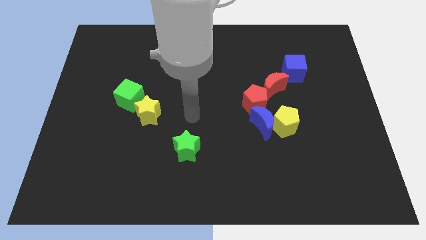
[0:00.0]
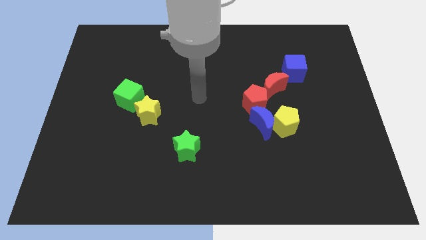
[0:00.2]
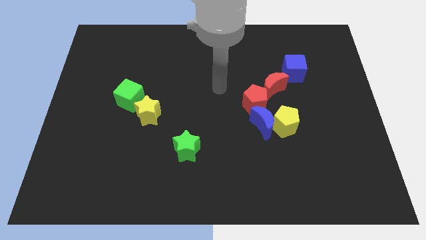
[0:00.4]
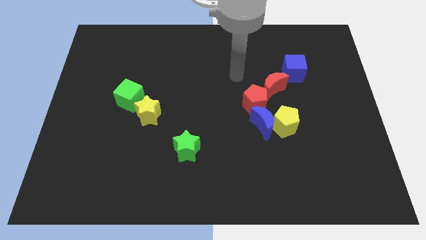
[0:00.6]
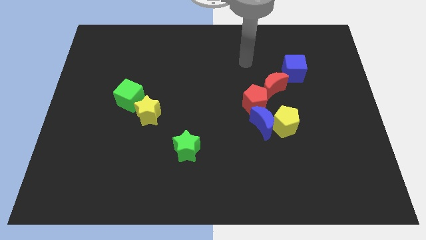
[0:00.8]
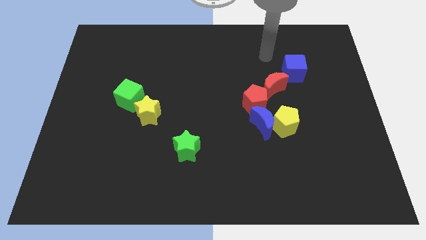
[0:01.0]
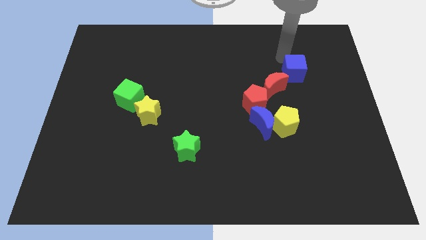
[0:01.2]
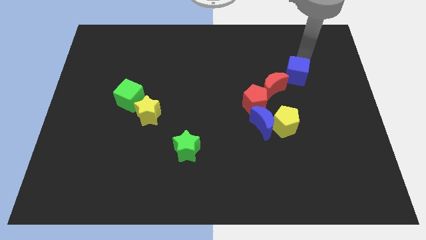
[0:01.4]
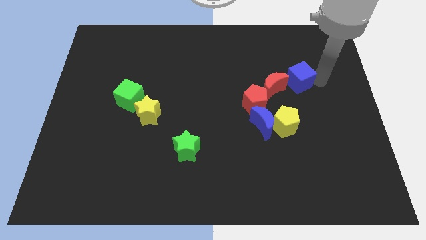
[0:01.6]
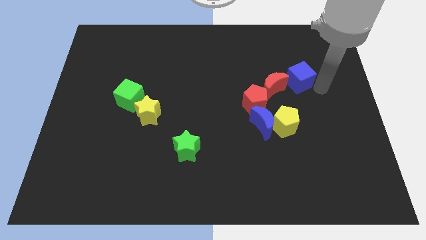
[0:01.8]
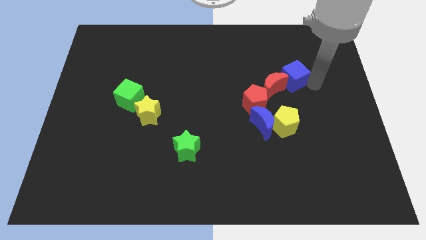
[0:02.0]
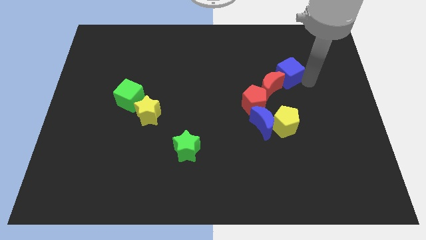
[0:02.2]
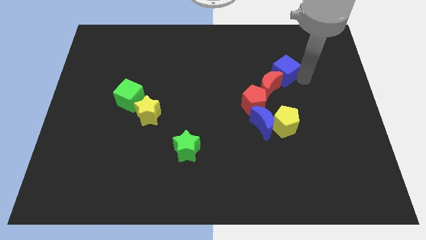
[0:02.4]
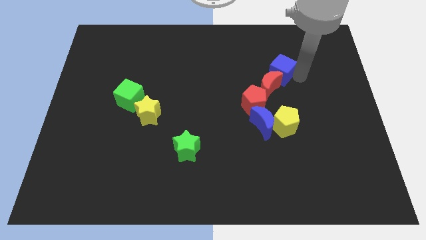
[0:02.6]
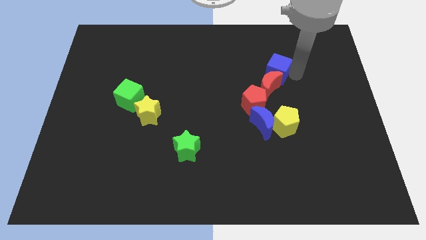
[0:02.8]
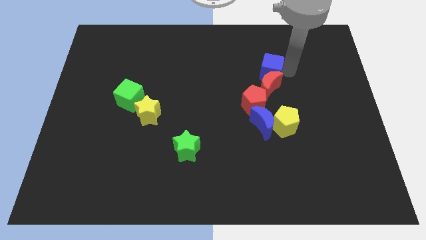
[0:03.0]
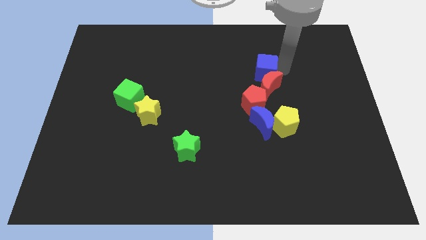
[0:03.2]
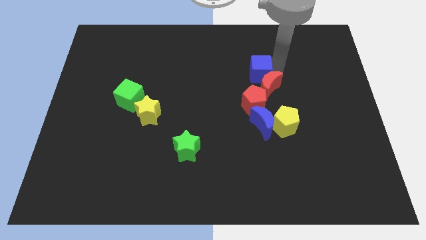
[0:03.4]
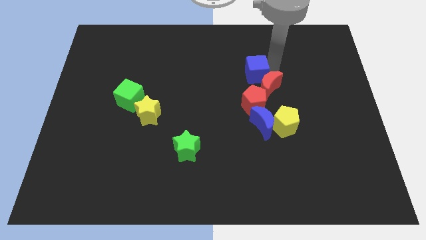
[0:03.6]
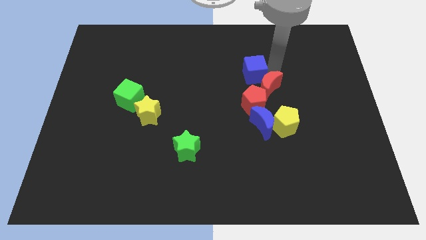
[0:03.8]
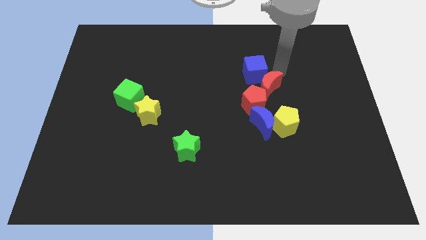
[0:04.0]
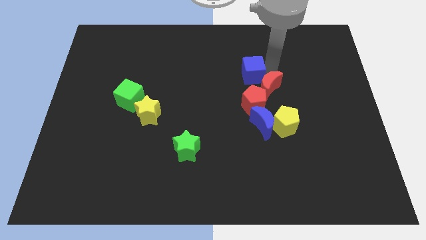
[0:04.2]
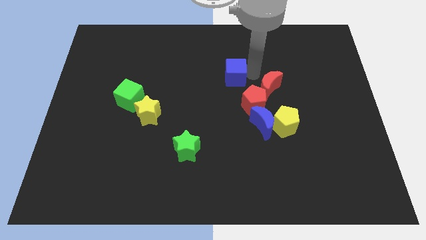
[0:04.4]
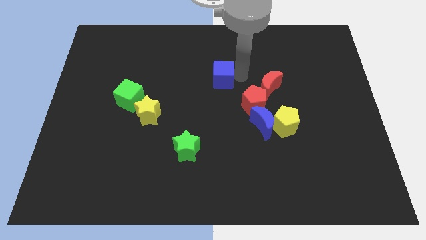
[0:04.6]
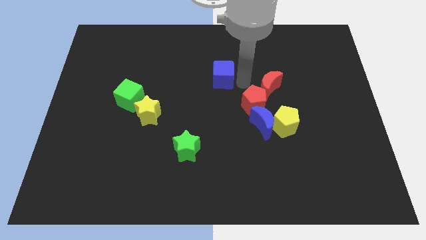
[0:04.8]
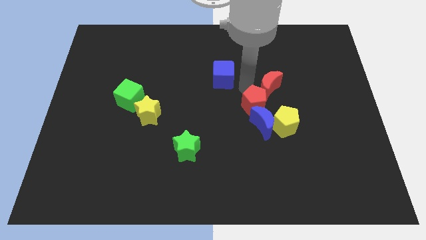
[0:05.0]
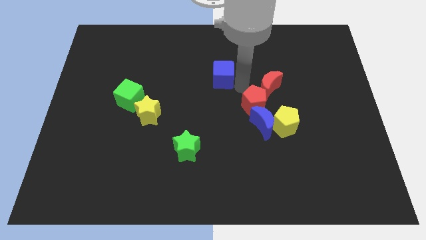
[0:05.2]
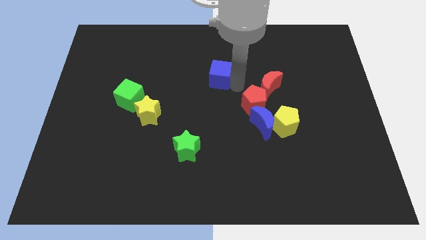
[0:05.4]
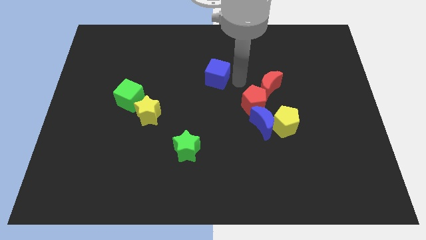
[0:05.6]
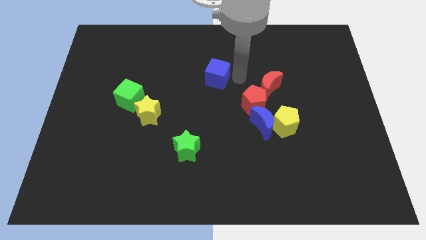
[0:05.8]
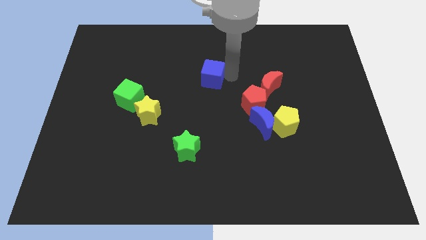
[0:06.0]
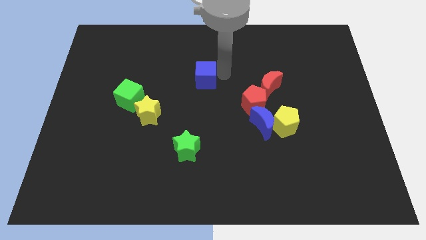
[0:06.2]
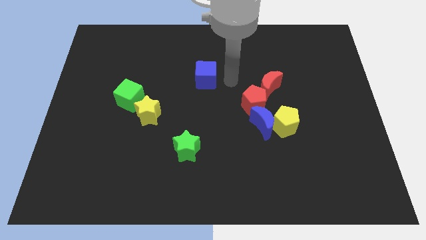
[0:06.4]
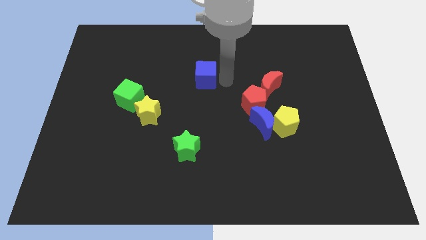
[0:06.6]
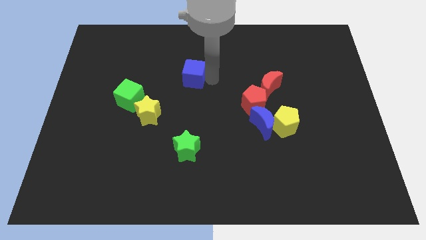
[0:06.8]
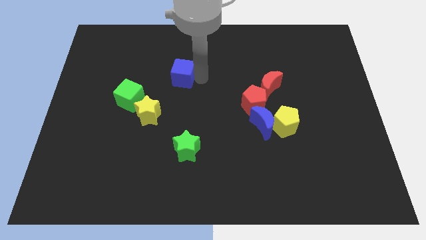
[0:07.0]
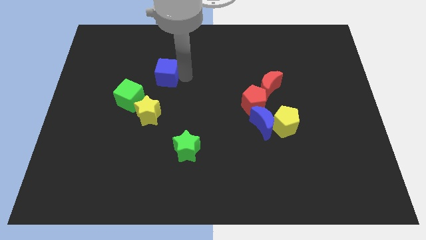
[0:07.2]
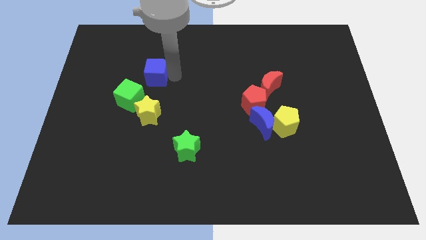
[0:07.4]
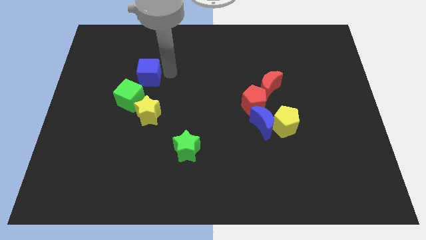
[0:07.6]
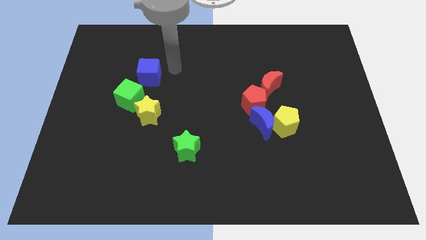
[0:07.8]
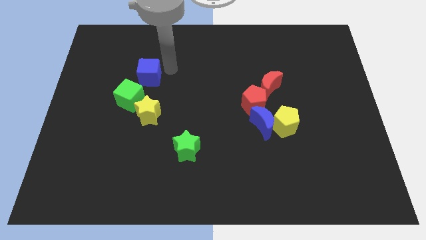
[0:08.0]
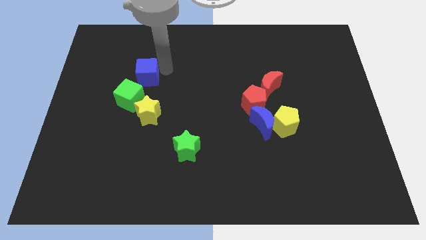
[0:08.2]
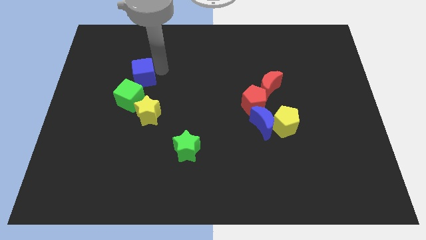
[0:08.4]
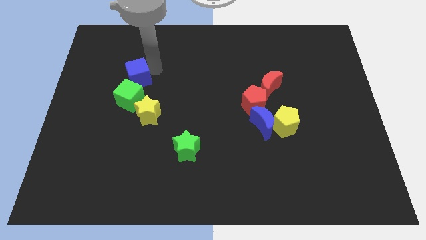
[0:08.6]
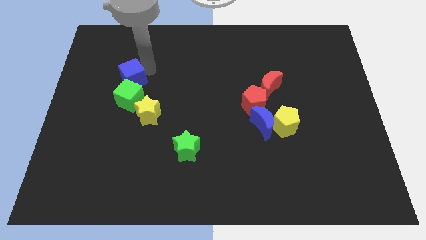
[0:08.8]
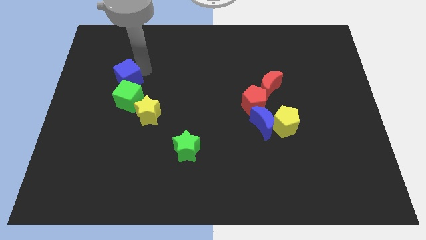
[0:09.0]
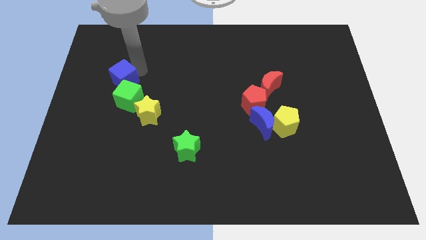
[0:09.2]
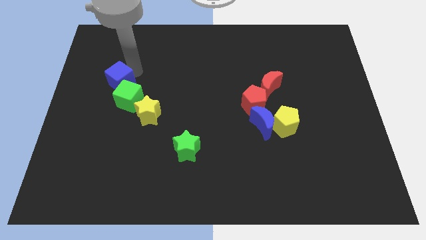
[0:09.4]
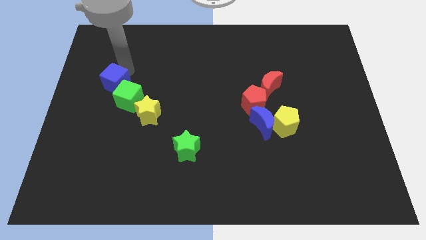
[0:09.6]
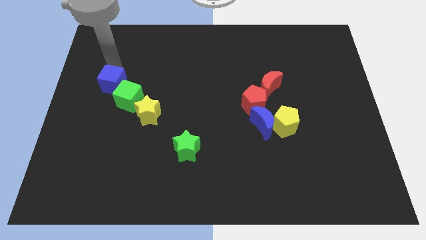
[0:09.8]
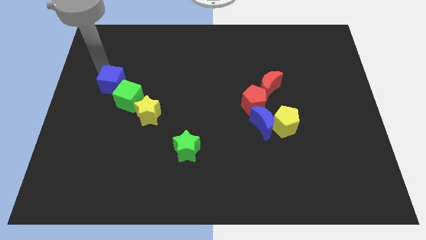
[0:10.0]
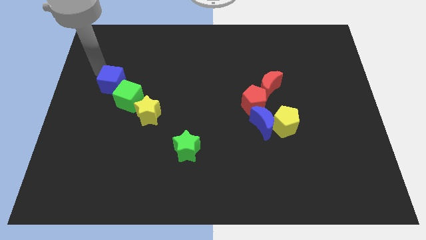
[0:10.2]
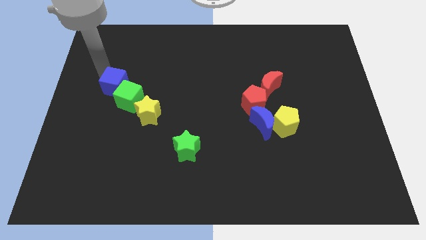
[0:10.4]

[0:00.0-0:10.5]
push the blue cube to the top left side of the yellow star

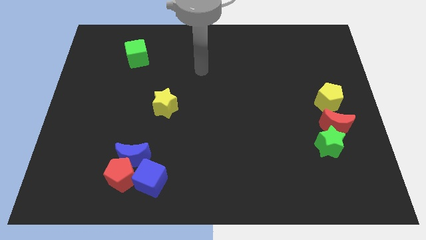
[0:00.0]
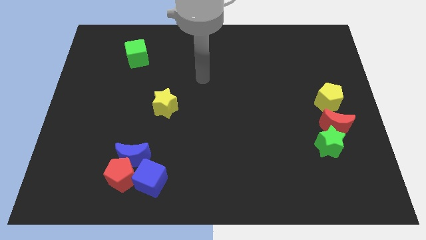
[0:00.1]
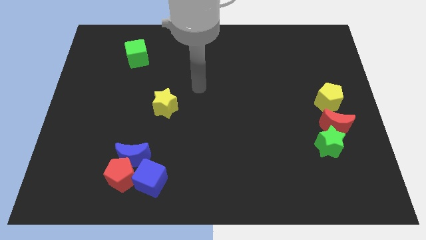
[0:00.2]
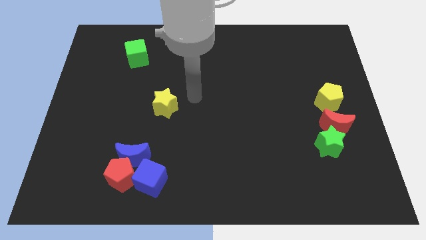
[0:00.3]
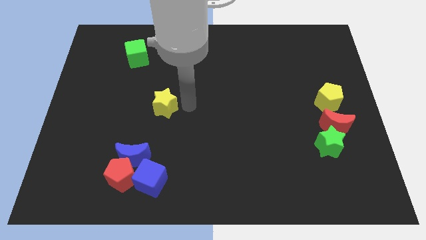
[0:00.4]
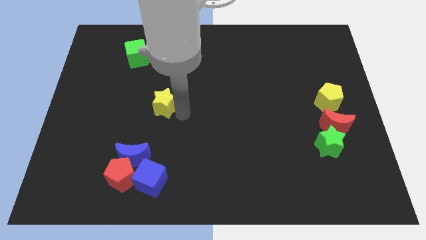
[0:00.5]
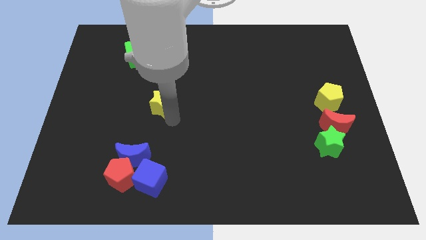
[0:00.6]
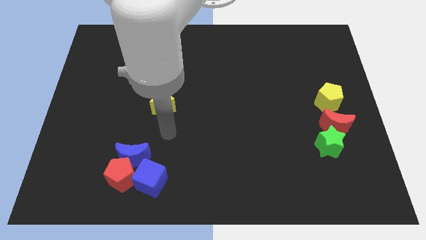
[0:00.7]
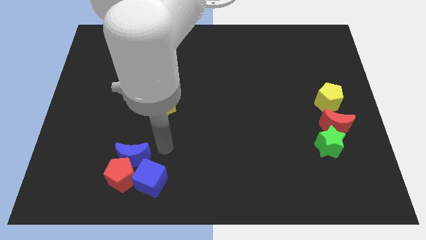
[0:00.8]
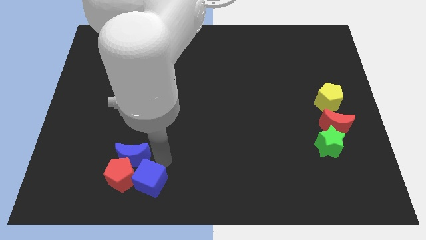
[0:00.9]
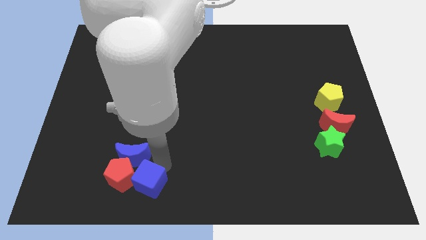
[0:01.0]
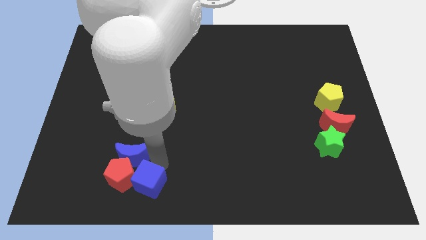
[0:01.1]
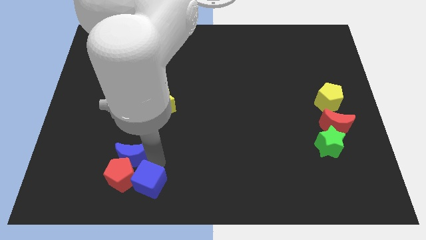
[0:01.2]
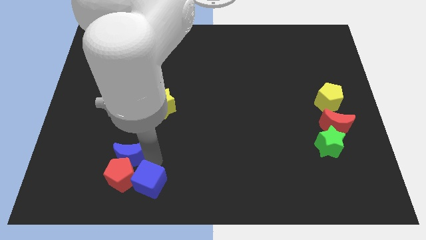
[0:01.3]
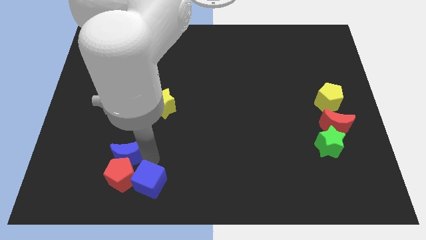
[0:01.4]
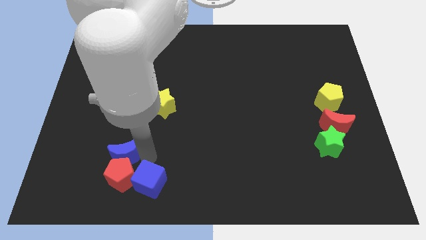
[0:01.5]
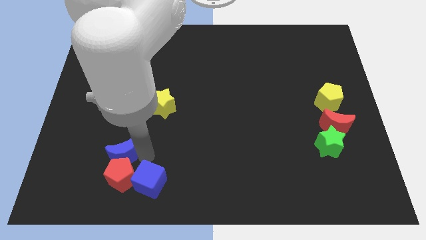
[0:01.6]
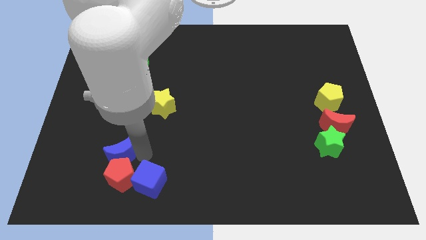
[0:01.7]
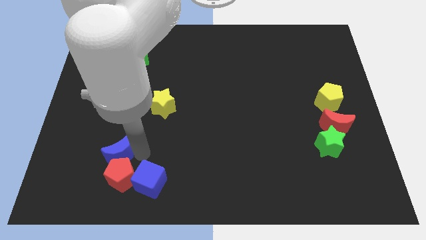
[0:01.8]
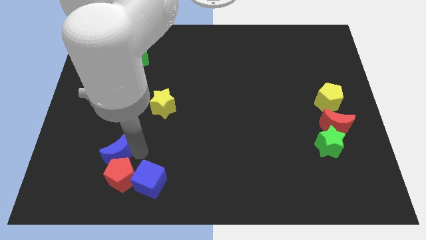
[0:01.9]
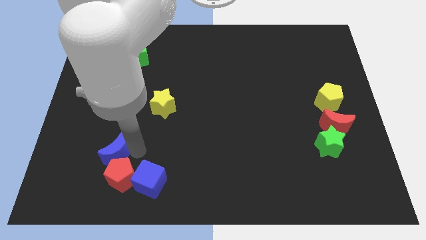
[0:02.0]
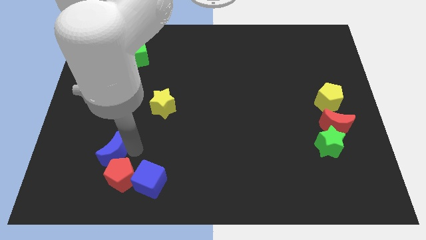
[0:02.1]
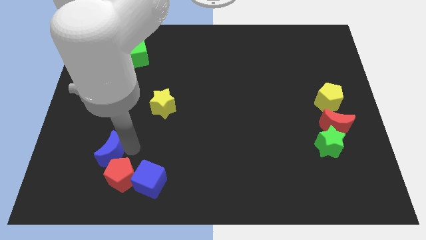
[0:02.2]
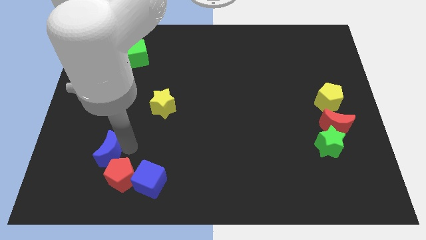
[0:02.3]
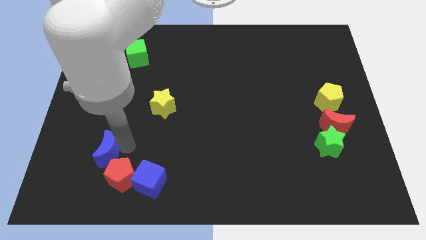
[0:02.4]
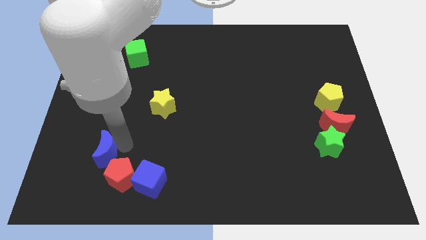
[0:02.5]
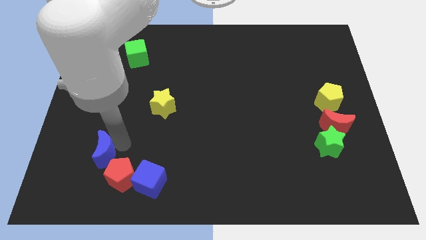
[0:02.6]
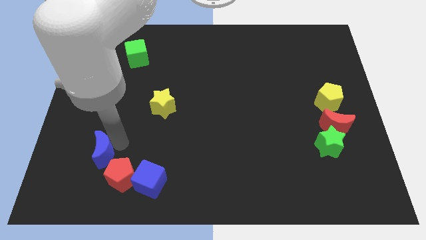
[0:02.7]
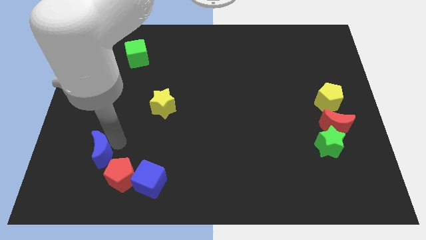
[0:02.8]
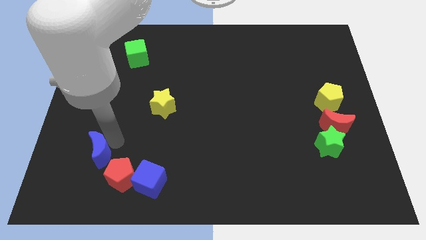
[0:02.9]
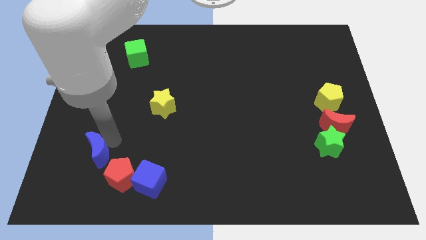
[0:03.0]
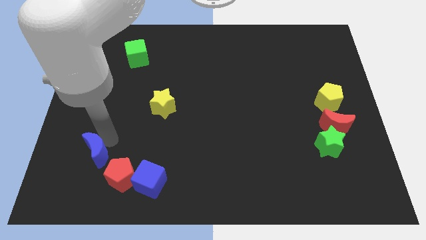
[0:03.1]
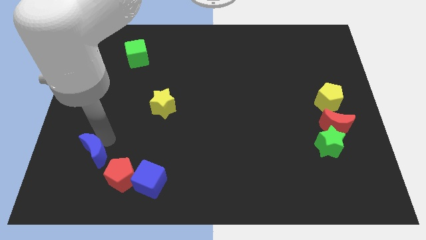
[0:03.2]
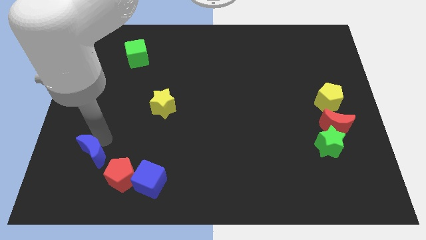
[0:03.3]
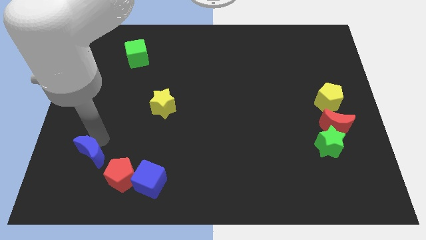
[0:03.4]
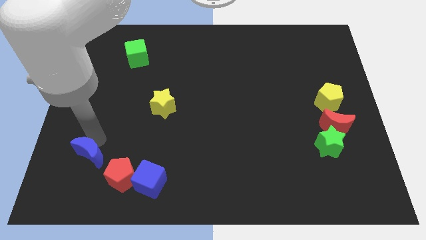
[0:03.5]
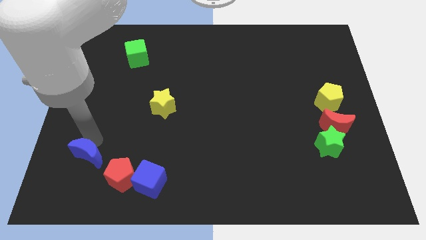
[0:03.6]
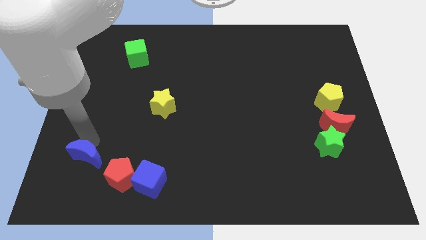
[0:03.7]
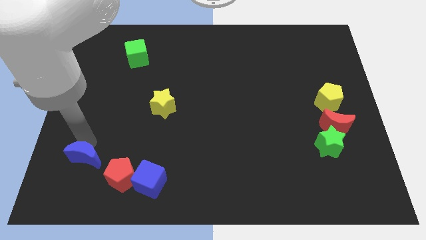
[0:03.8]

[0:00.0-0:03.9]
move the blue moon to the left of the red pentagon
